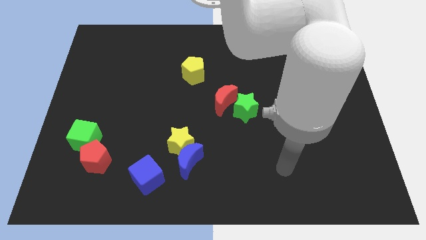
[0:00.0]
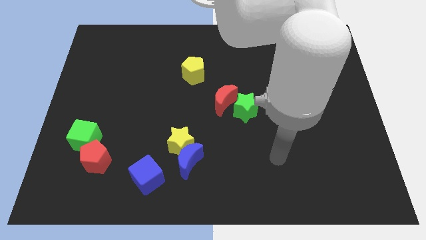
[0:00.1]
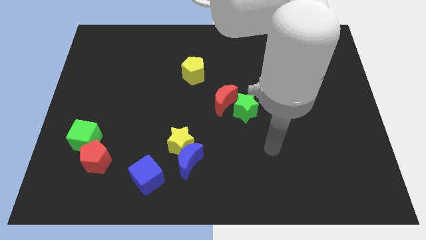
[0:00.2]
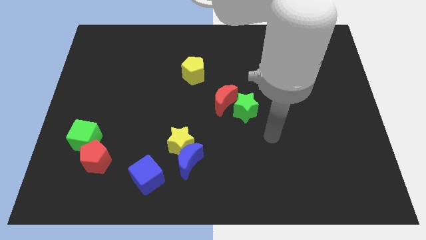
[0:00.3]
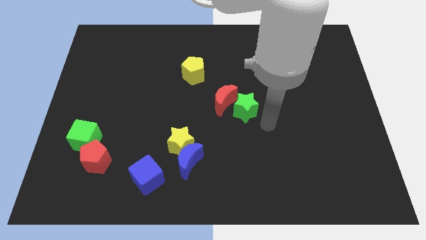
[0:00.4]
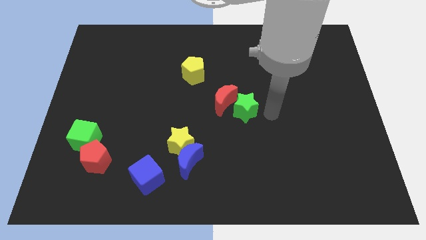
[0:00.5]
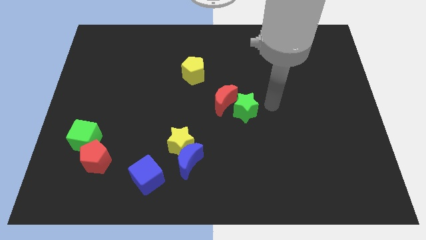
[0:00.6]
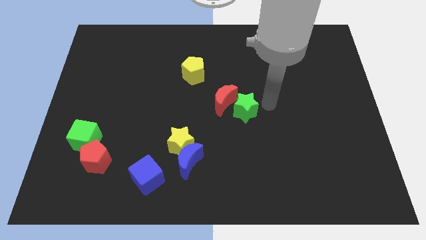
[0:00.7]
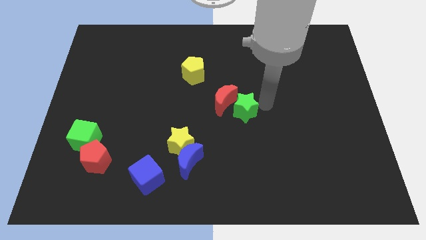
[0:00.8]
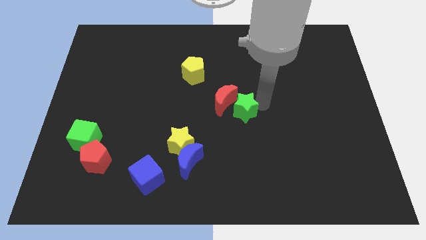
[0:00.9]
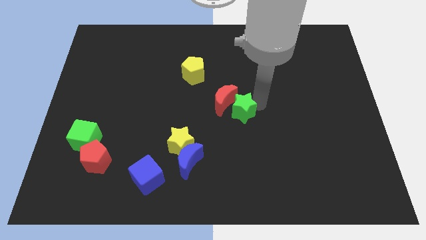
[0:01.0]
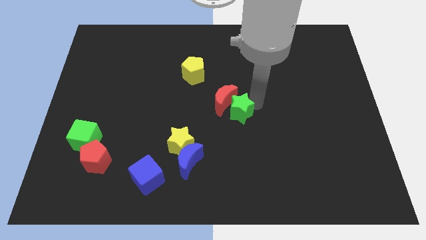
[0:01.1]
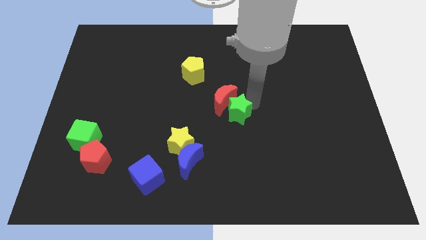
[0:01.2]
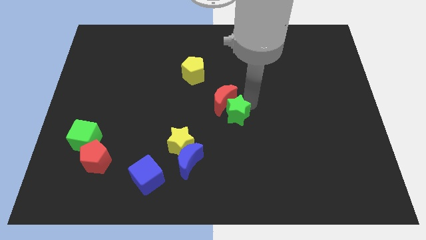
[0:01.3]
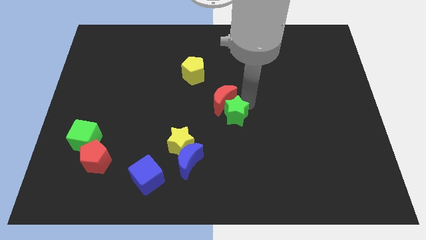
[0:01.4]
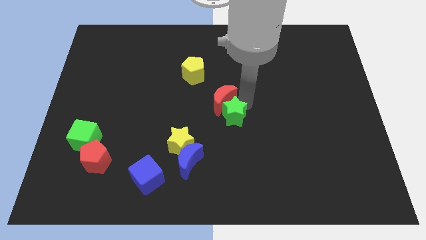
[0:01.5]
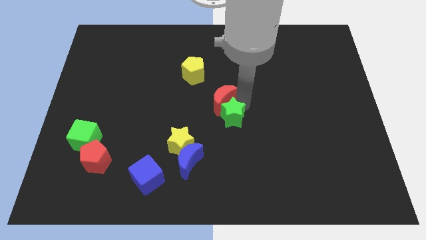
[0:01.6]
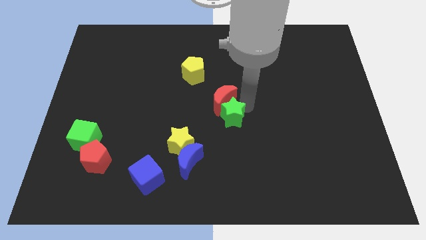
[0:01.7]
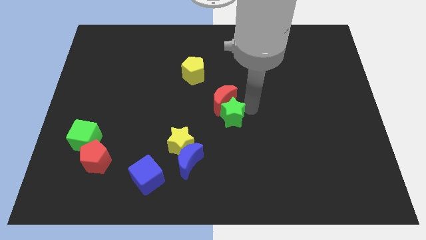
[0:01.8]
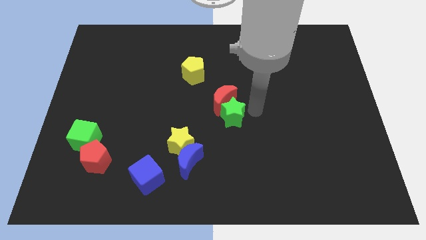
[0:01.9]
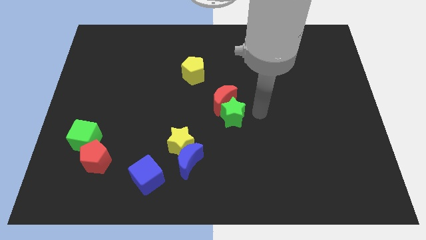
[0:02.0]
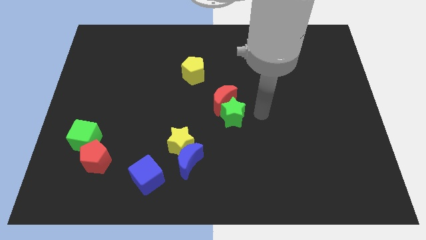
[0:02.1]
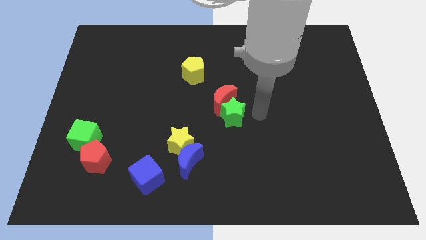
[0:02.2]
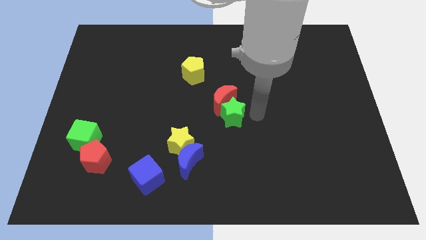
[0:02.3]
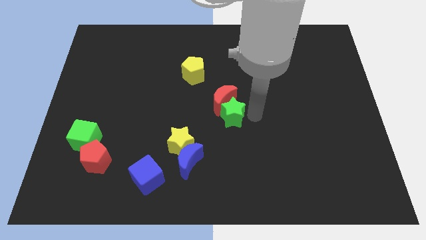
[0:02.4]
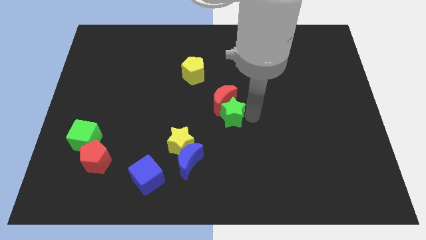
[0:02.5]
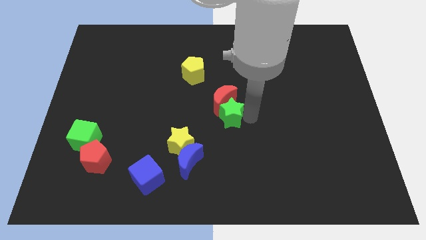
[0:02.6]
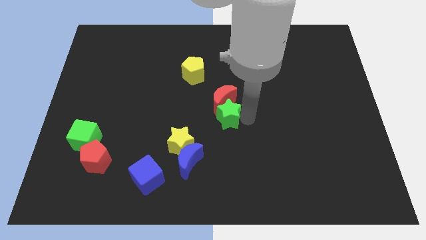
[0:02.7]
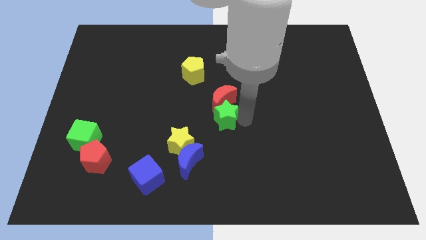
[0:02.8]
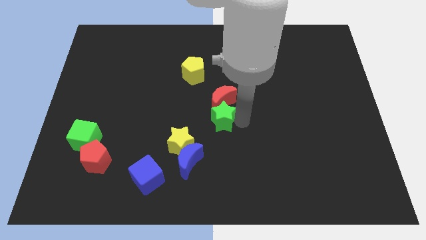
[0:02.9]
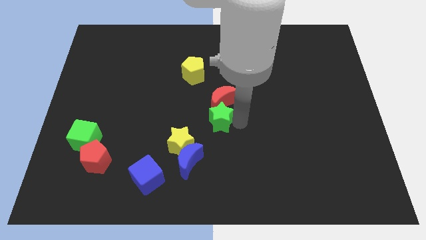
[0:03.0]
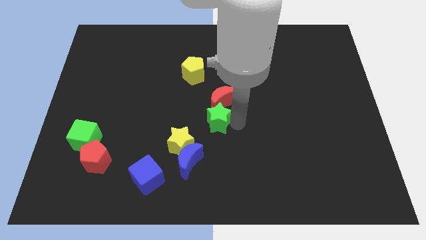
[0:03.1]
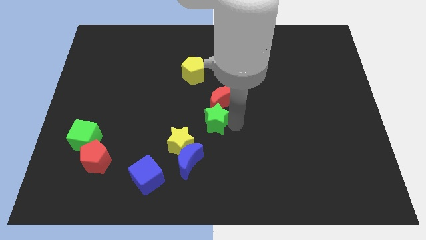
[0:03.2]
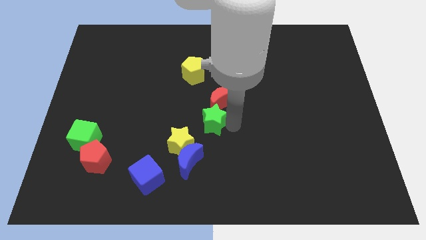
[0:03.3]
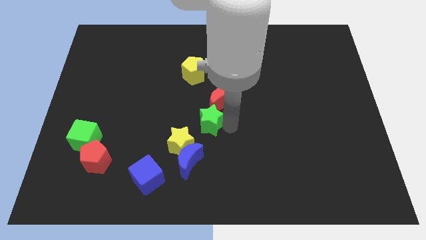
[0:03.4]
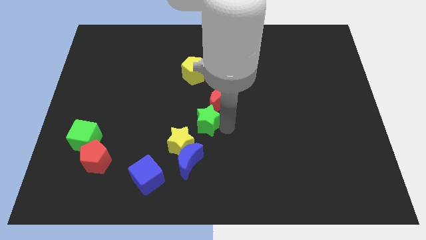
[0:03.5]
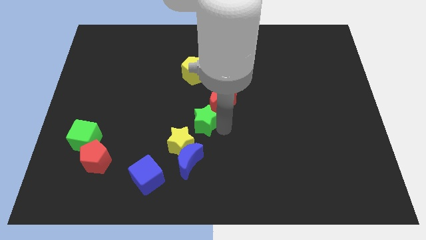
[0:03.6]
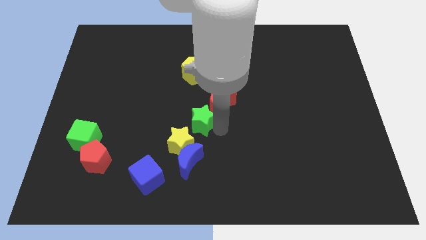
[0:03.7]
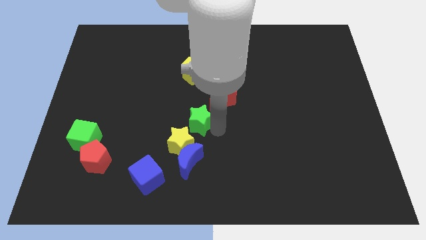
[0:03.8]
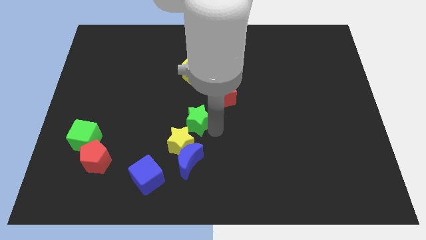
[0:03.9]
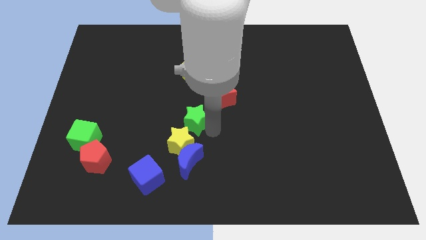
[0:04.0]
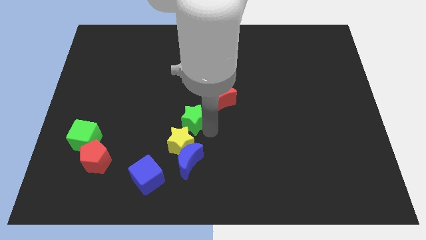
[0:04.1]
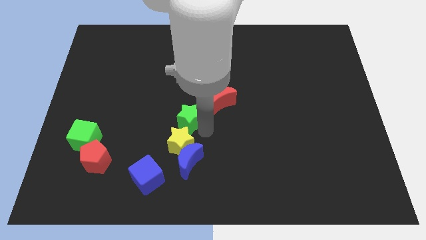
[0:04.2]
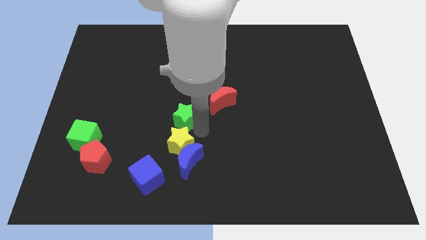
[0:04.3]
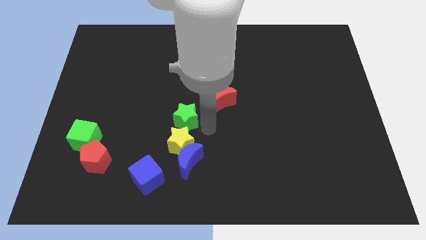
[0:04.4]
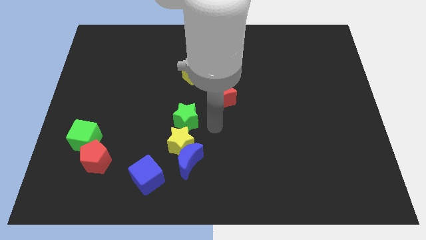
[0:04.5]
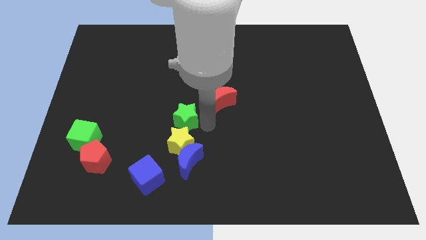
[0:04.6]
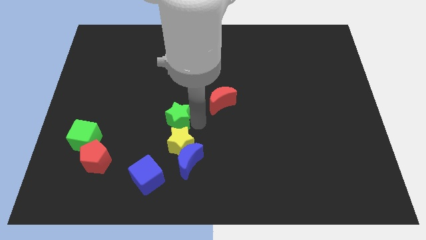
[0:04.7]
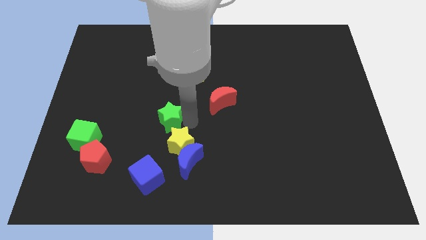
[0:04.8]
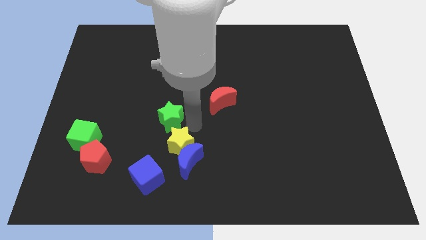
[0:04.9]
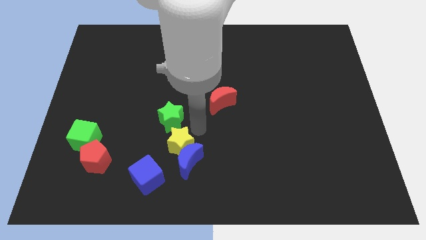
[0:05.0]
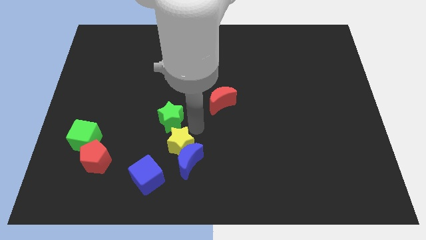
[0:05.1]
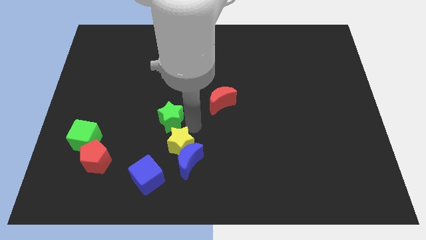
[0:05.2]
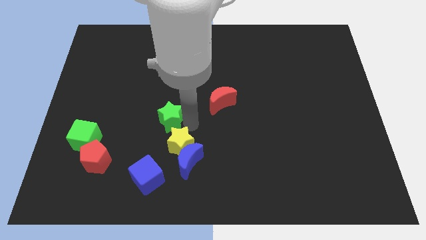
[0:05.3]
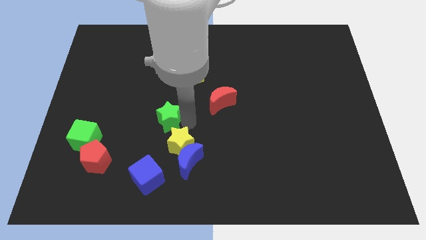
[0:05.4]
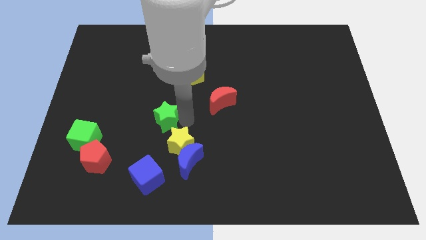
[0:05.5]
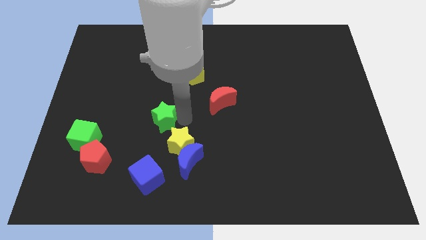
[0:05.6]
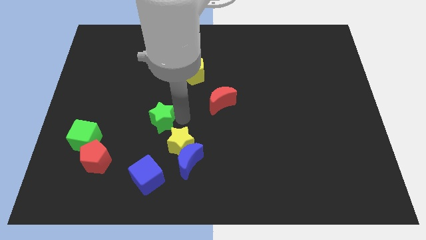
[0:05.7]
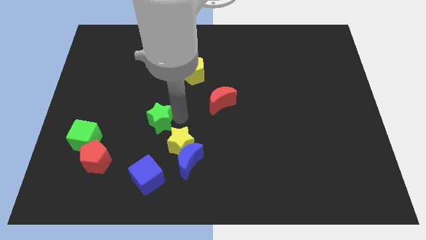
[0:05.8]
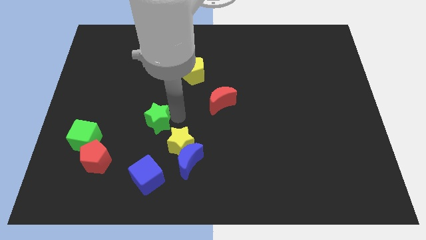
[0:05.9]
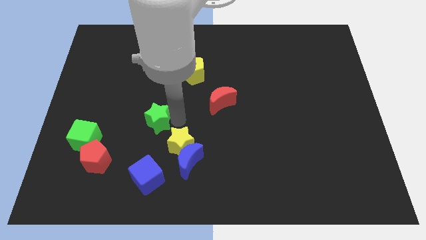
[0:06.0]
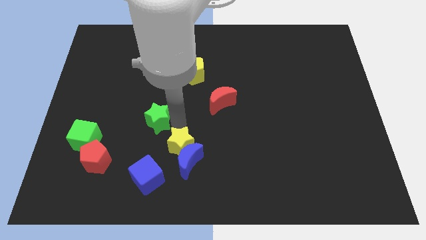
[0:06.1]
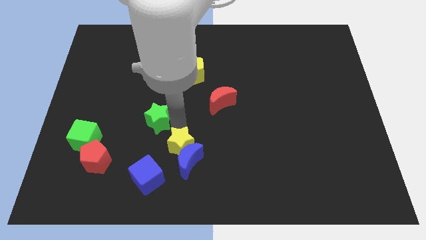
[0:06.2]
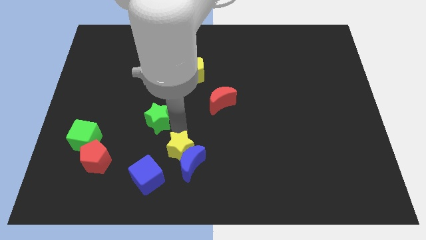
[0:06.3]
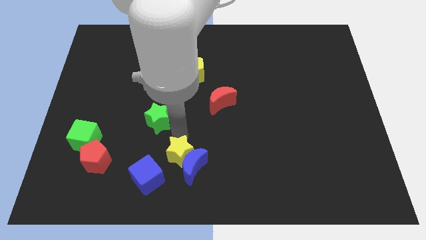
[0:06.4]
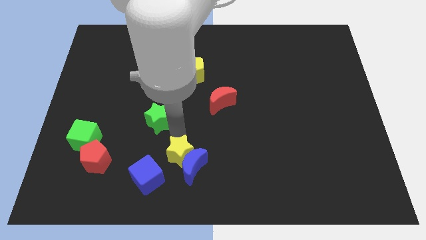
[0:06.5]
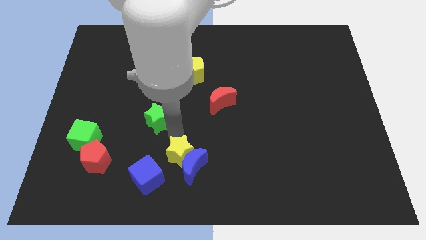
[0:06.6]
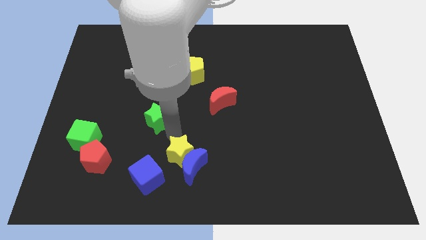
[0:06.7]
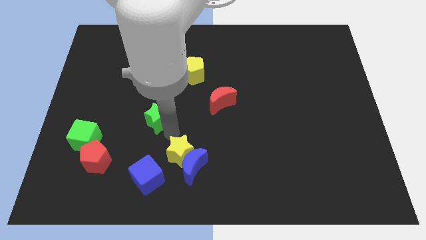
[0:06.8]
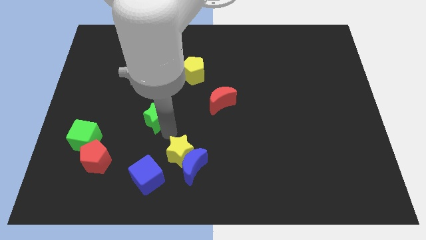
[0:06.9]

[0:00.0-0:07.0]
slide the green star left

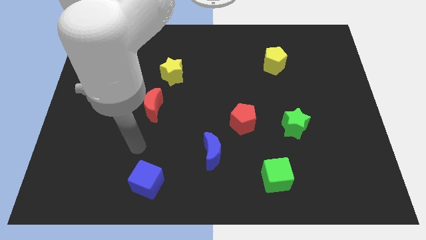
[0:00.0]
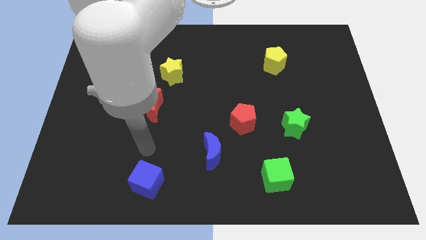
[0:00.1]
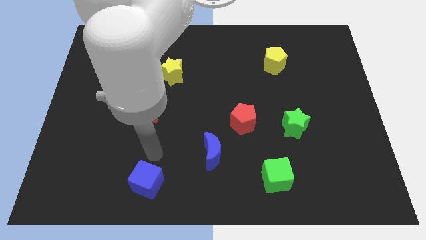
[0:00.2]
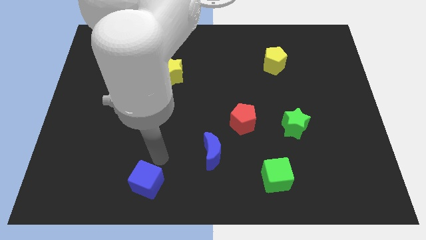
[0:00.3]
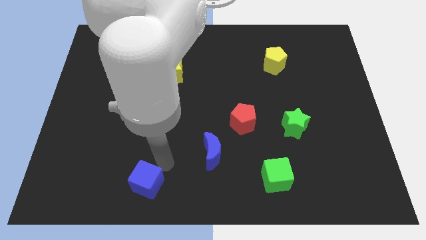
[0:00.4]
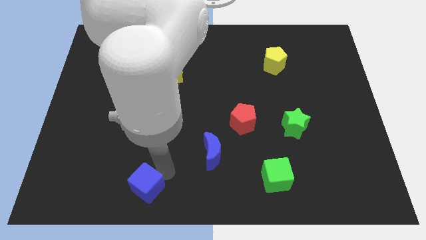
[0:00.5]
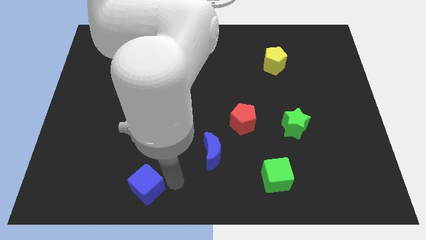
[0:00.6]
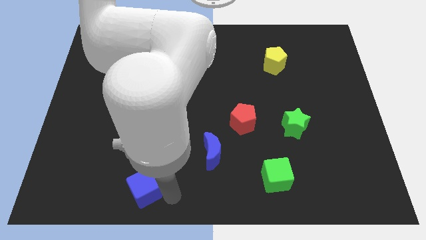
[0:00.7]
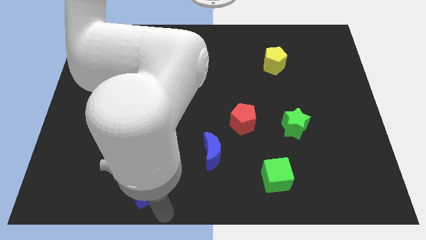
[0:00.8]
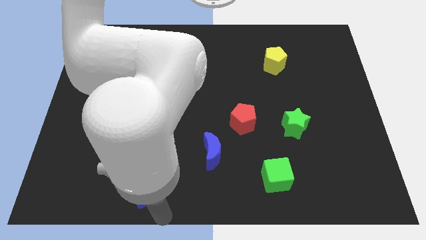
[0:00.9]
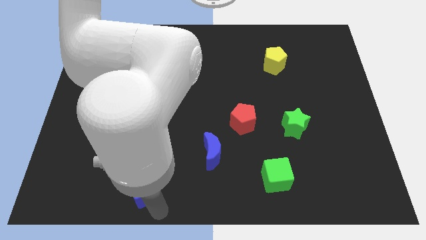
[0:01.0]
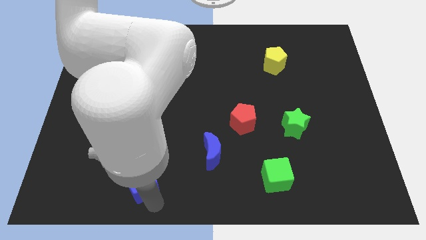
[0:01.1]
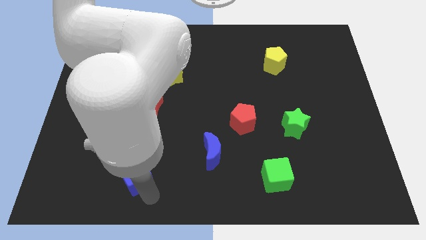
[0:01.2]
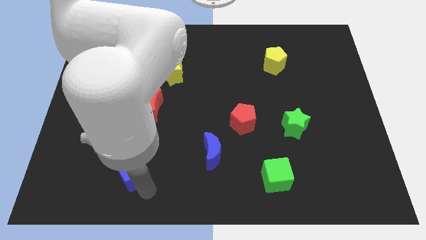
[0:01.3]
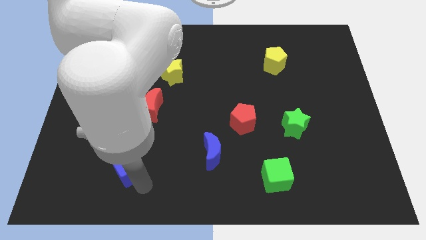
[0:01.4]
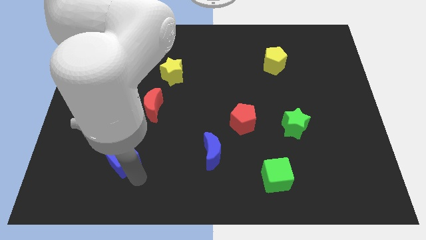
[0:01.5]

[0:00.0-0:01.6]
slightly slide the blue cube diagonally up and left
